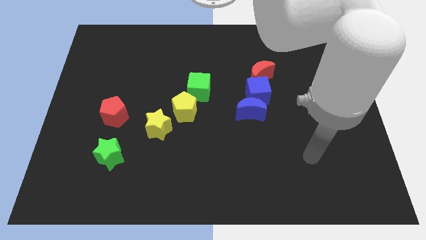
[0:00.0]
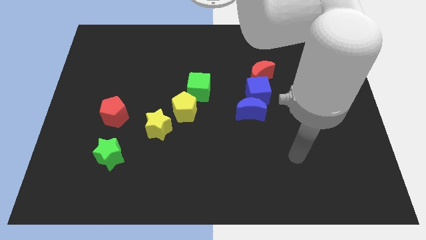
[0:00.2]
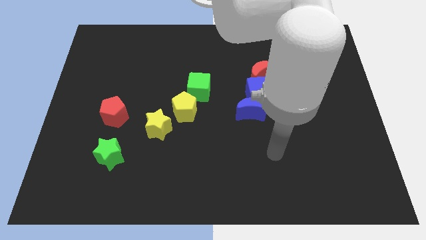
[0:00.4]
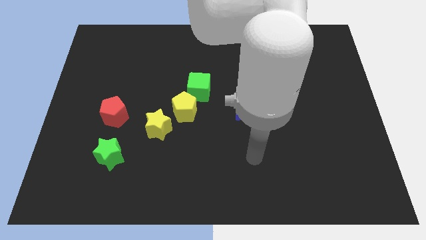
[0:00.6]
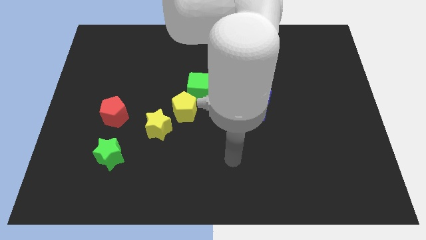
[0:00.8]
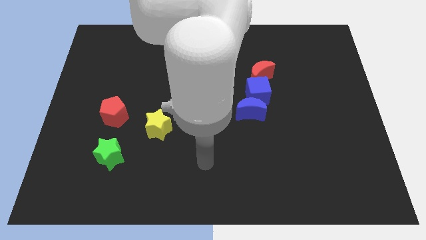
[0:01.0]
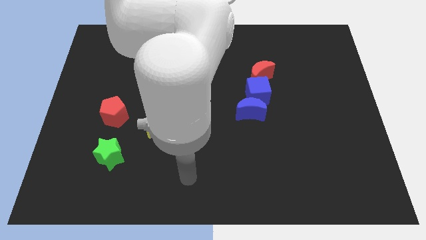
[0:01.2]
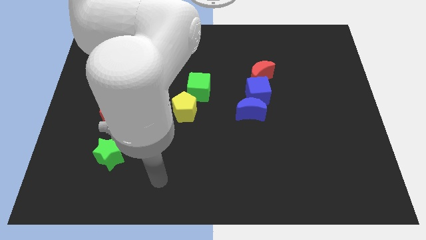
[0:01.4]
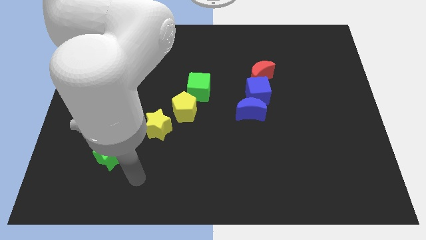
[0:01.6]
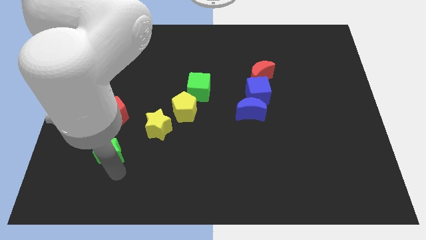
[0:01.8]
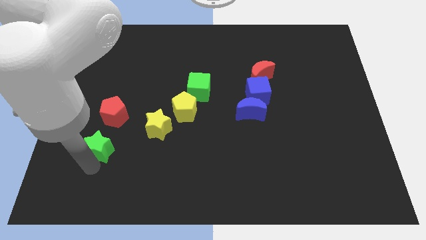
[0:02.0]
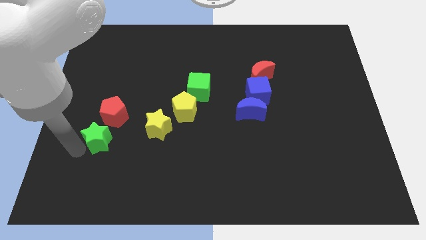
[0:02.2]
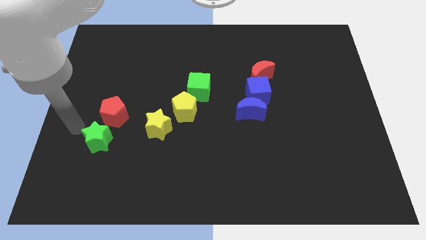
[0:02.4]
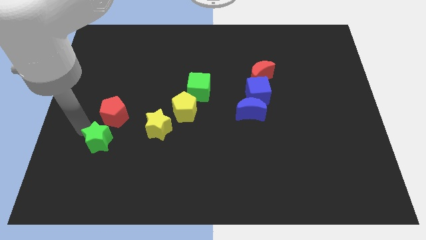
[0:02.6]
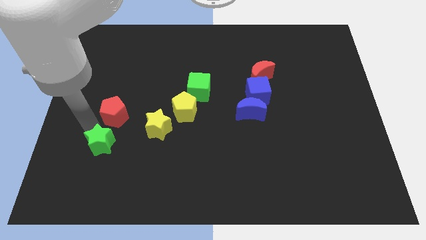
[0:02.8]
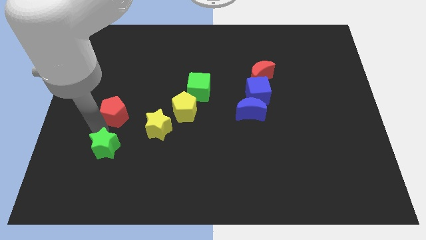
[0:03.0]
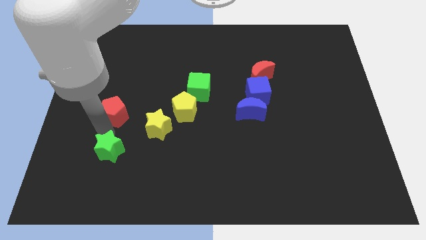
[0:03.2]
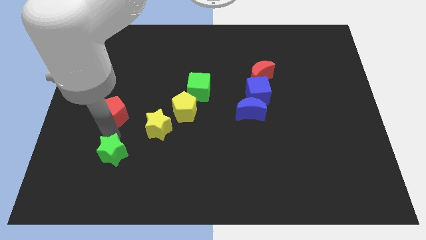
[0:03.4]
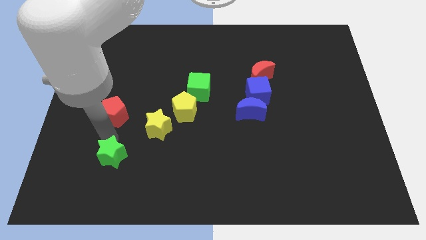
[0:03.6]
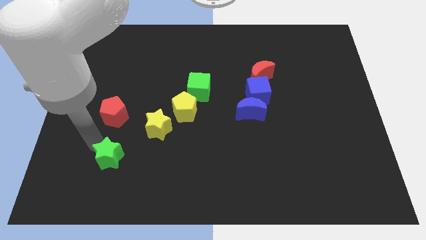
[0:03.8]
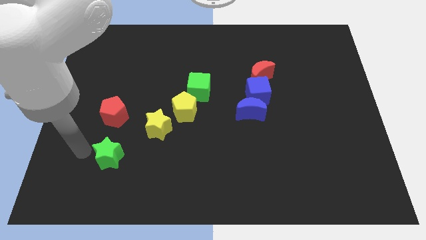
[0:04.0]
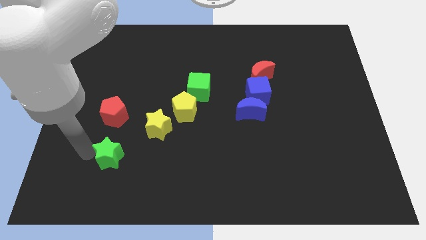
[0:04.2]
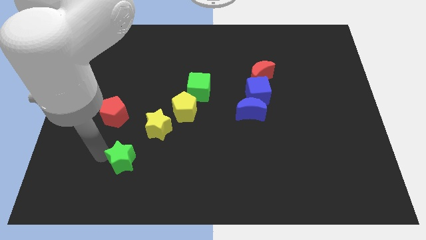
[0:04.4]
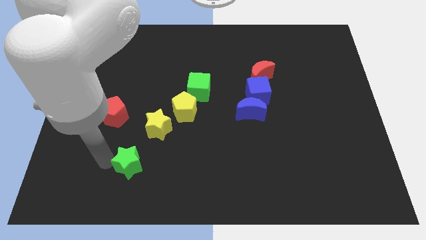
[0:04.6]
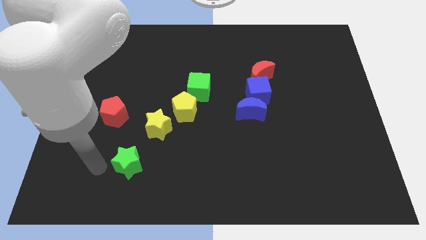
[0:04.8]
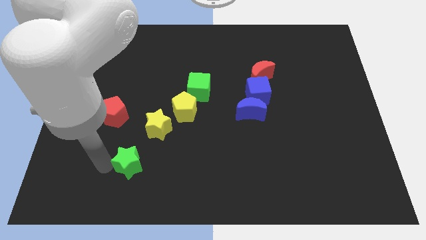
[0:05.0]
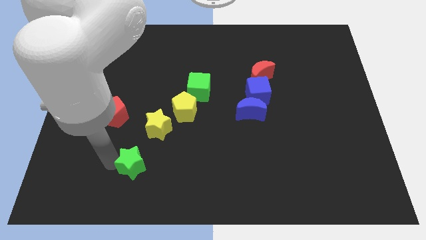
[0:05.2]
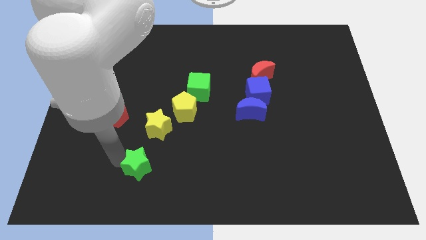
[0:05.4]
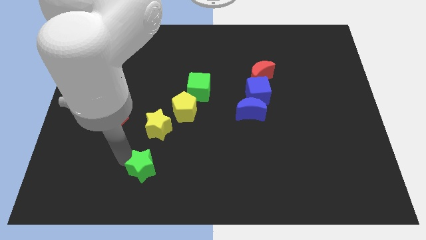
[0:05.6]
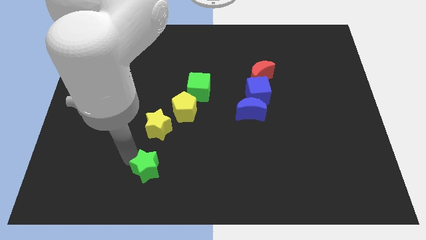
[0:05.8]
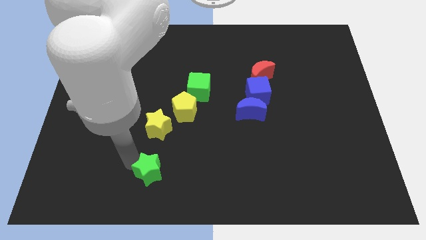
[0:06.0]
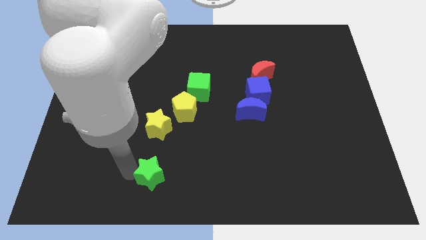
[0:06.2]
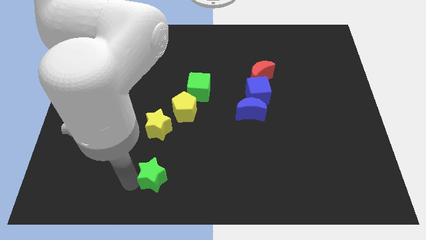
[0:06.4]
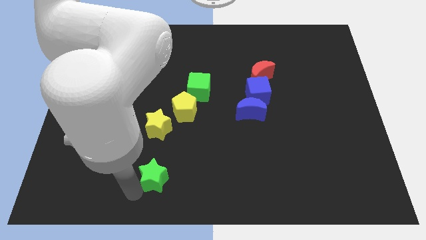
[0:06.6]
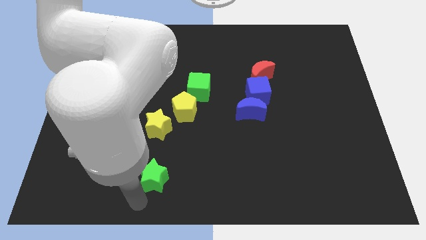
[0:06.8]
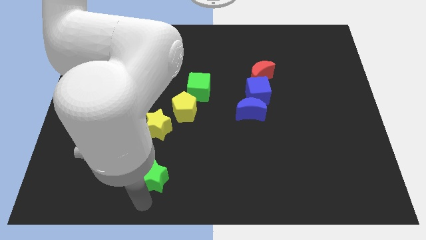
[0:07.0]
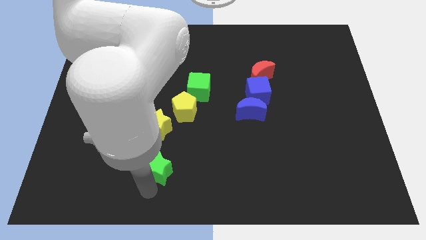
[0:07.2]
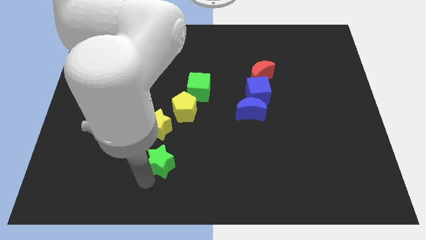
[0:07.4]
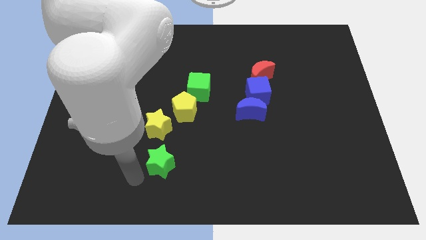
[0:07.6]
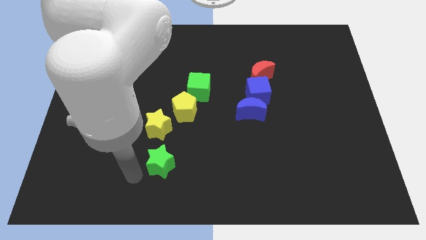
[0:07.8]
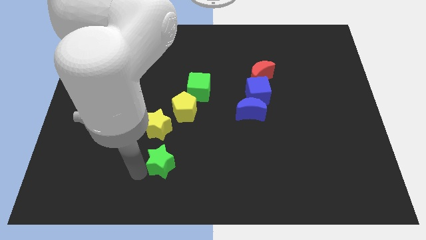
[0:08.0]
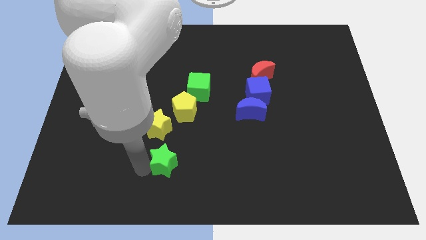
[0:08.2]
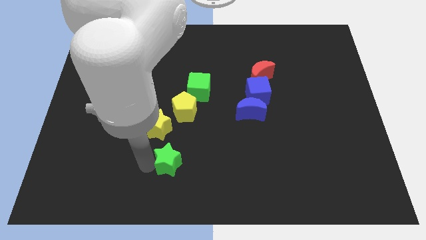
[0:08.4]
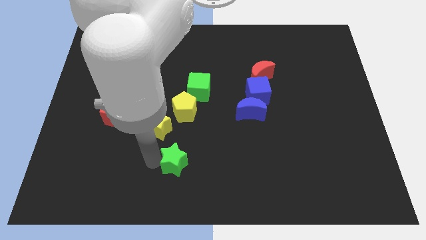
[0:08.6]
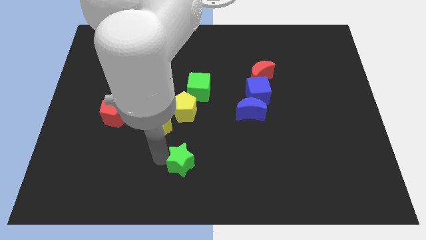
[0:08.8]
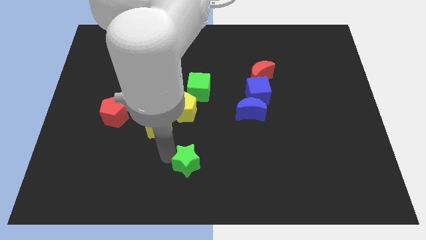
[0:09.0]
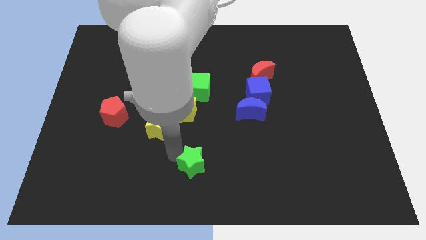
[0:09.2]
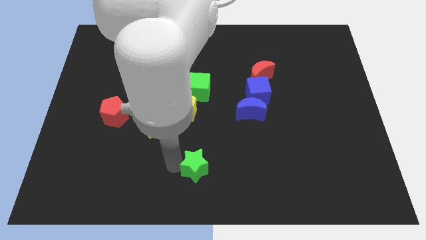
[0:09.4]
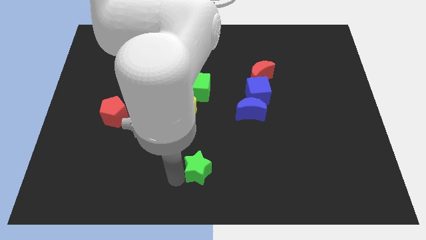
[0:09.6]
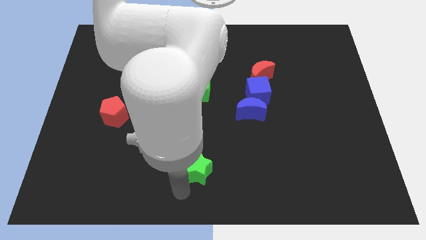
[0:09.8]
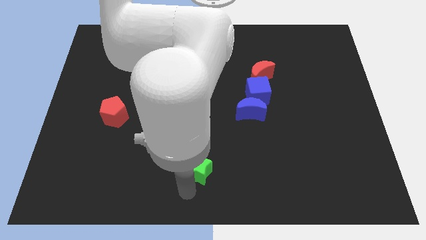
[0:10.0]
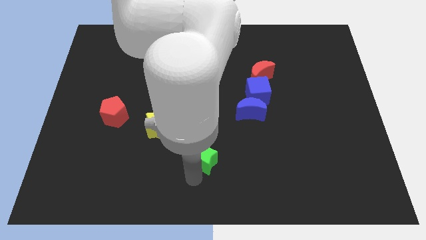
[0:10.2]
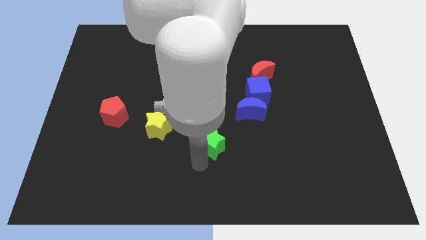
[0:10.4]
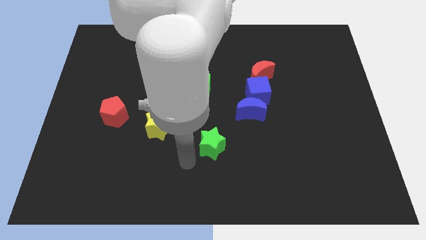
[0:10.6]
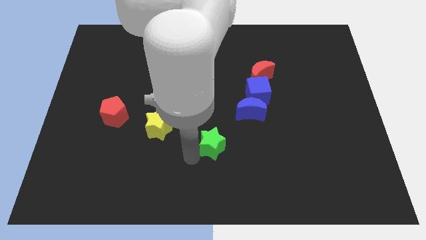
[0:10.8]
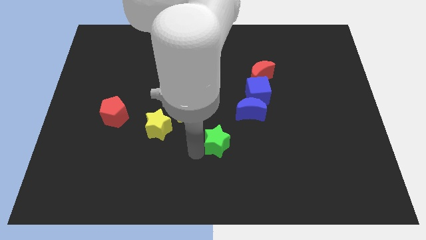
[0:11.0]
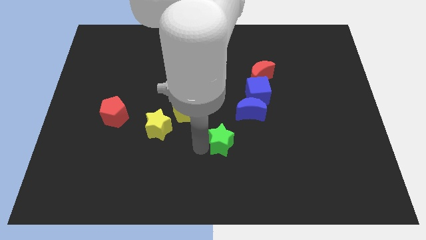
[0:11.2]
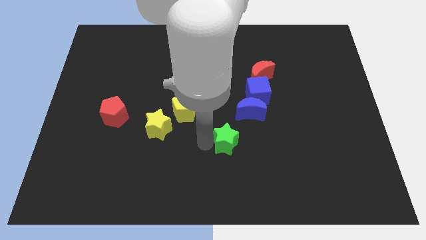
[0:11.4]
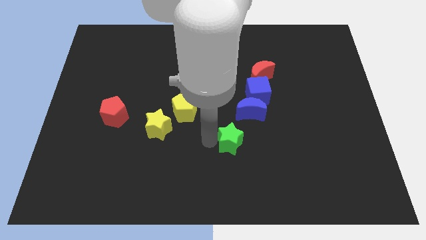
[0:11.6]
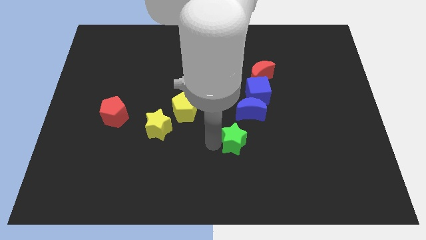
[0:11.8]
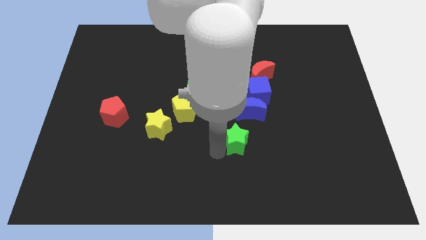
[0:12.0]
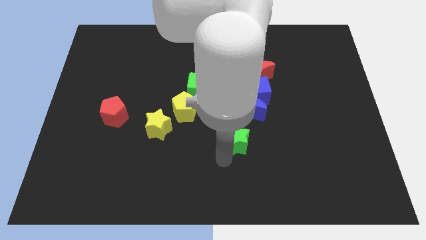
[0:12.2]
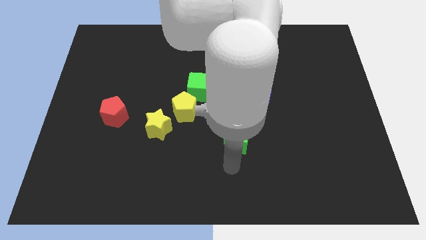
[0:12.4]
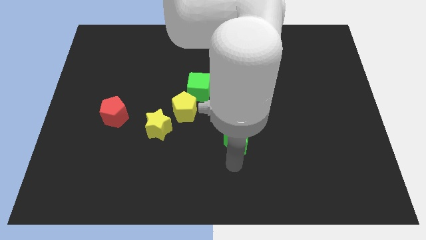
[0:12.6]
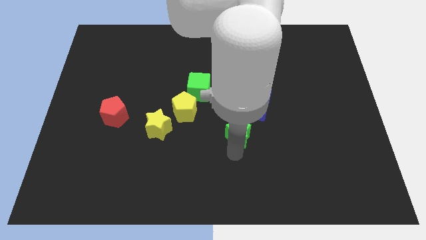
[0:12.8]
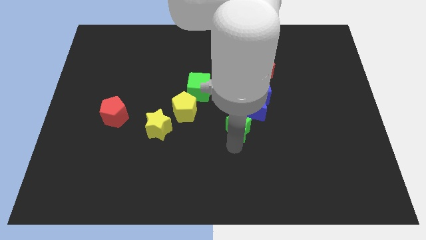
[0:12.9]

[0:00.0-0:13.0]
push the green star next to the blue moon

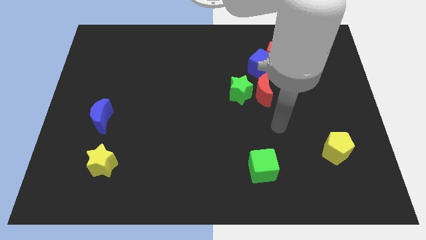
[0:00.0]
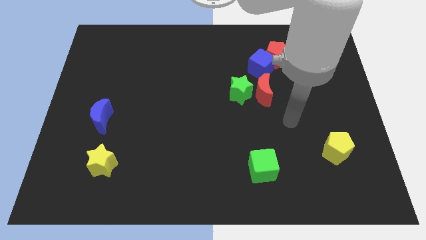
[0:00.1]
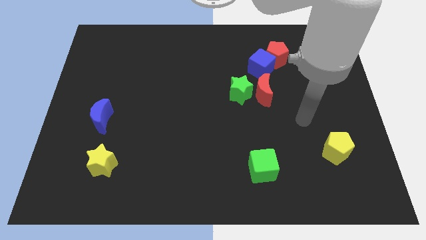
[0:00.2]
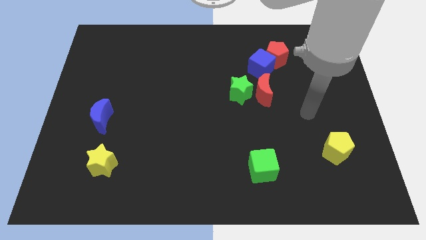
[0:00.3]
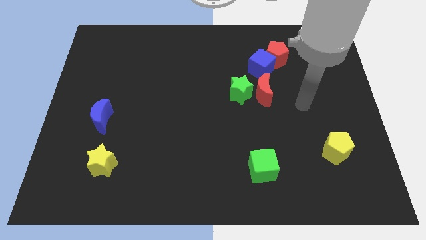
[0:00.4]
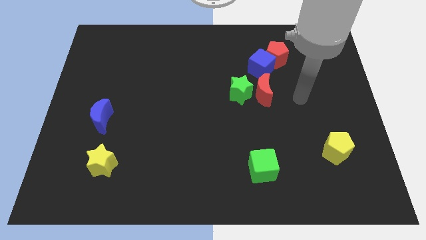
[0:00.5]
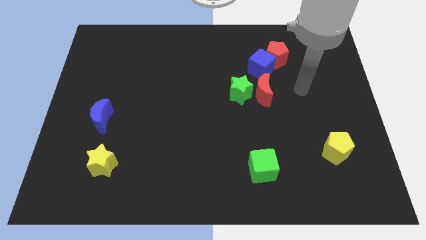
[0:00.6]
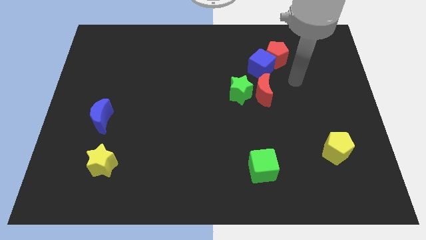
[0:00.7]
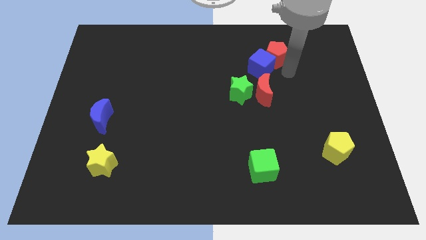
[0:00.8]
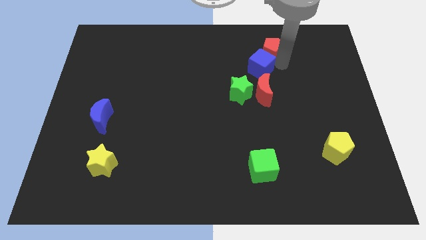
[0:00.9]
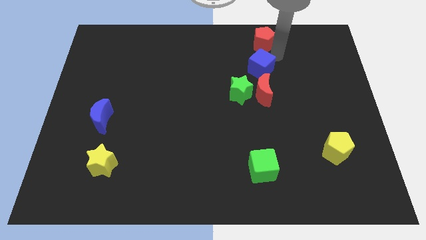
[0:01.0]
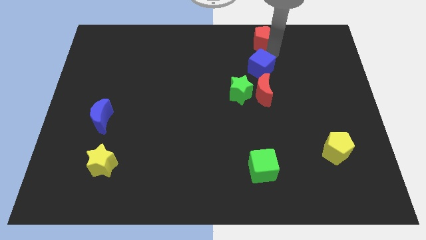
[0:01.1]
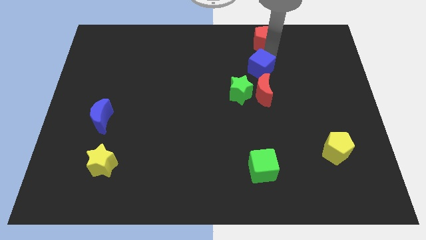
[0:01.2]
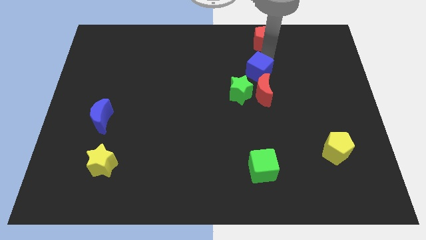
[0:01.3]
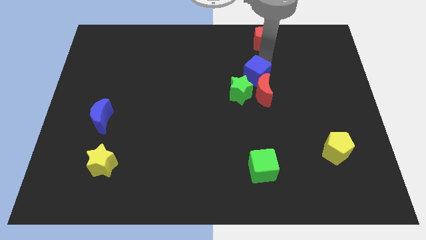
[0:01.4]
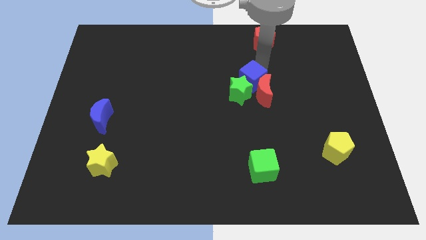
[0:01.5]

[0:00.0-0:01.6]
move the blue cube close to the green star
